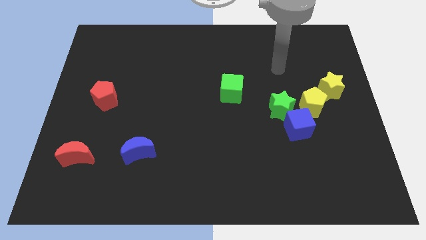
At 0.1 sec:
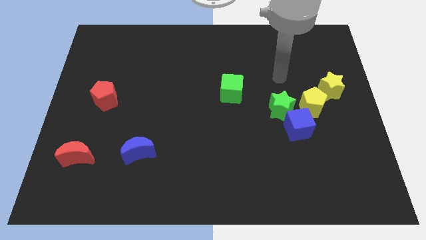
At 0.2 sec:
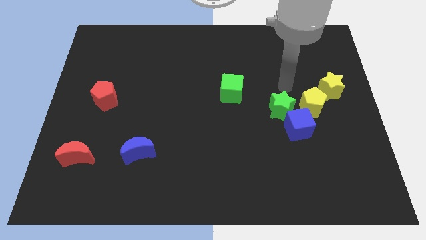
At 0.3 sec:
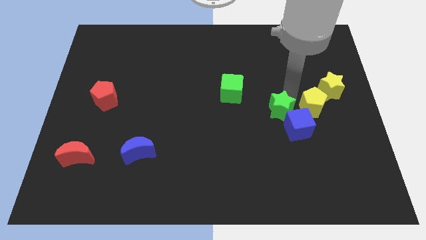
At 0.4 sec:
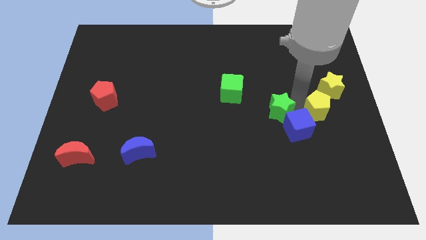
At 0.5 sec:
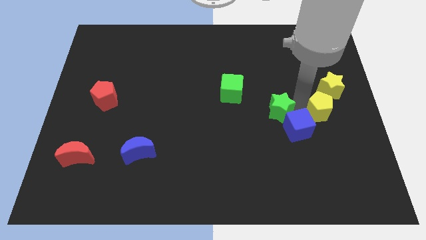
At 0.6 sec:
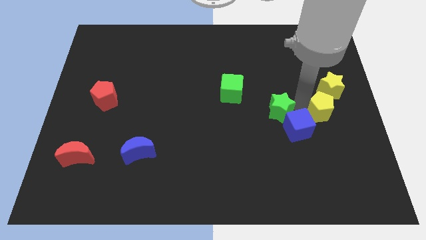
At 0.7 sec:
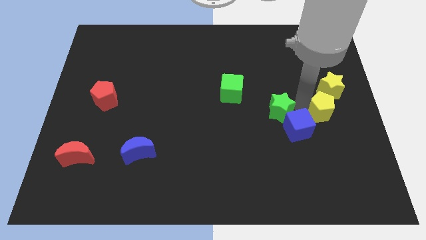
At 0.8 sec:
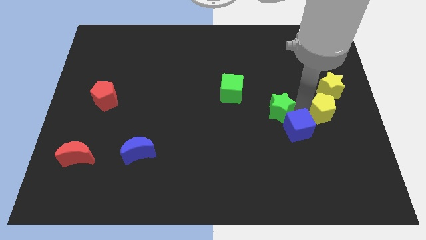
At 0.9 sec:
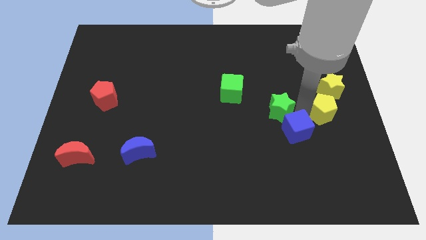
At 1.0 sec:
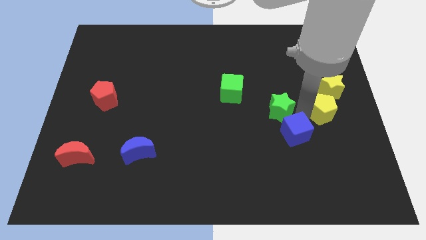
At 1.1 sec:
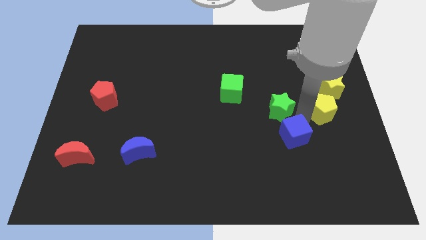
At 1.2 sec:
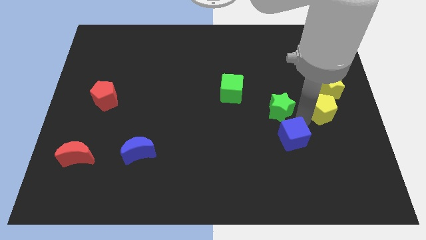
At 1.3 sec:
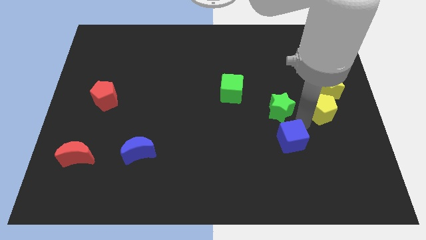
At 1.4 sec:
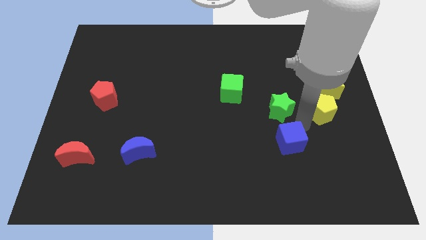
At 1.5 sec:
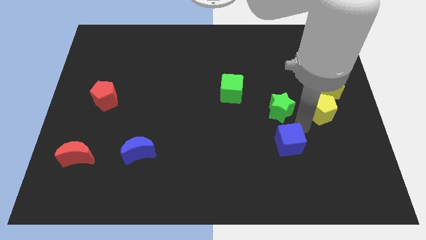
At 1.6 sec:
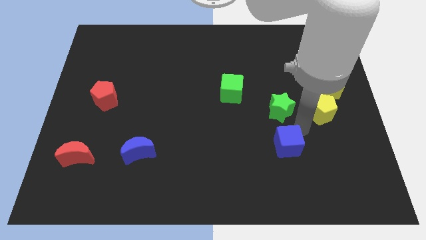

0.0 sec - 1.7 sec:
move the blue cube away from the green star and yellow pentagon

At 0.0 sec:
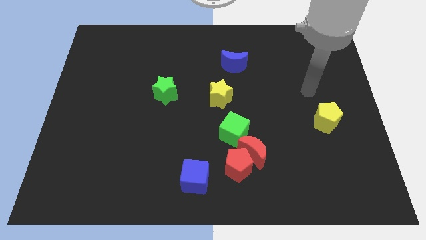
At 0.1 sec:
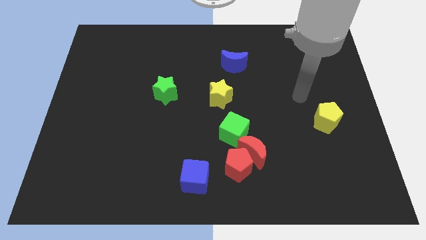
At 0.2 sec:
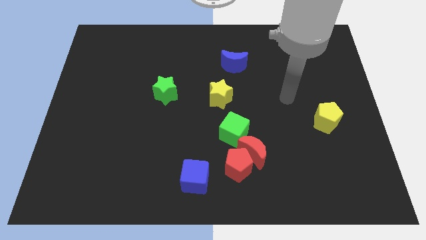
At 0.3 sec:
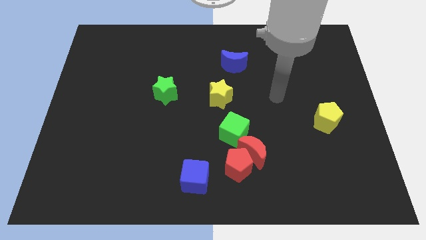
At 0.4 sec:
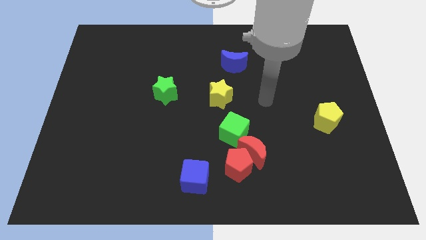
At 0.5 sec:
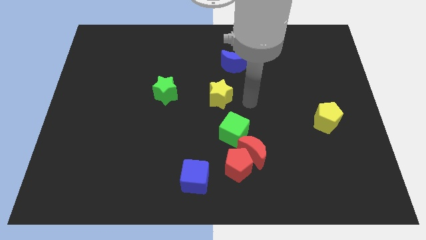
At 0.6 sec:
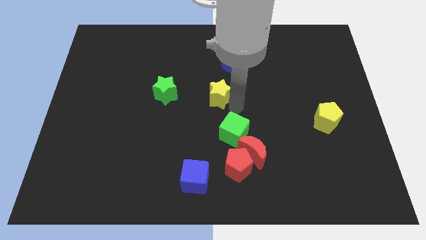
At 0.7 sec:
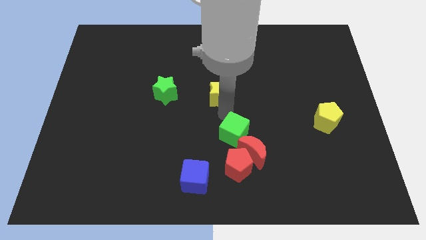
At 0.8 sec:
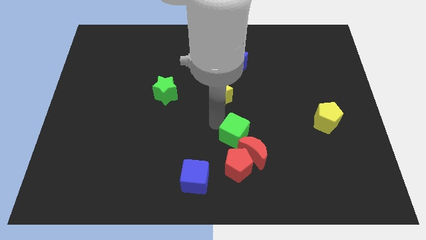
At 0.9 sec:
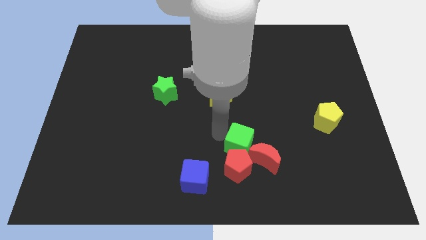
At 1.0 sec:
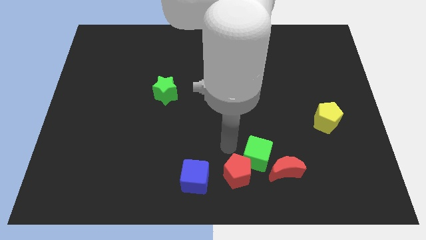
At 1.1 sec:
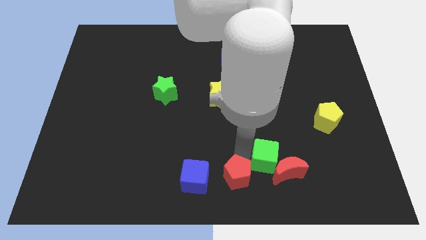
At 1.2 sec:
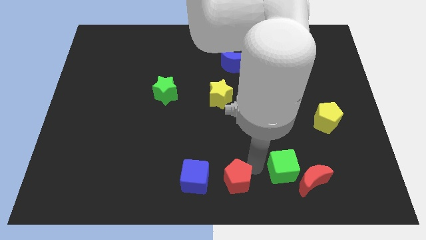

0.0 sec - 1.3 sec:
move the red moon away from the red pentagon and green cube

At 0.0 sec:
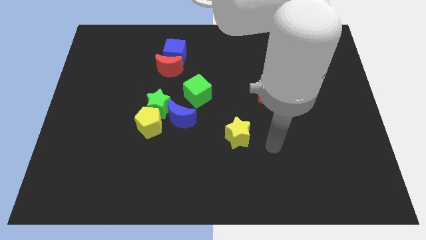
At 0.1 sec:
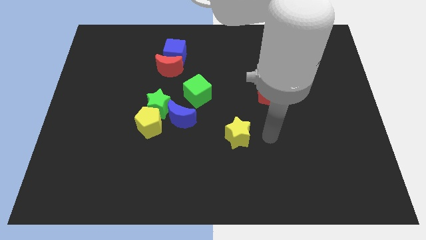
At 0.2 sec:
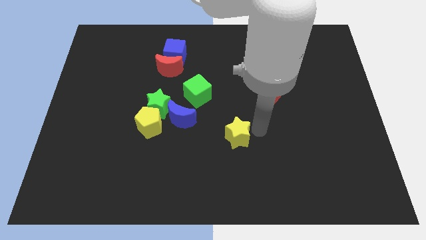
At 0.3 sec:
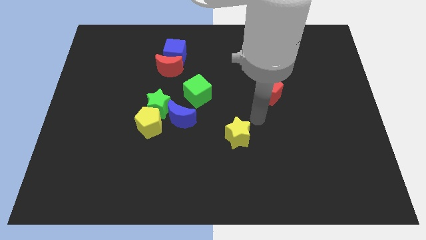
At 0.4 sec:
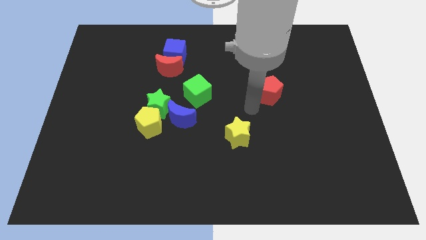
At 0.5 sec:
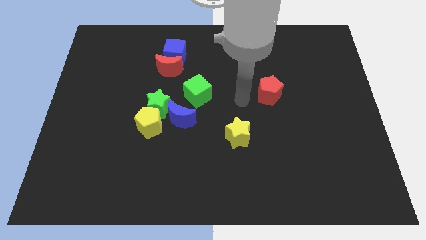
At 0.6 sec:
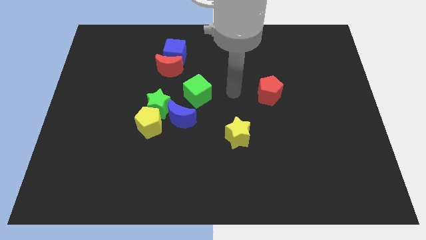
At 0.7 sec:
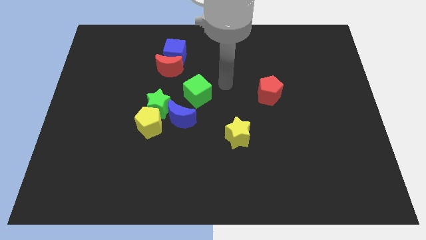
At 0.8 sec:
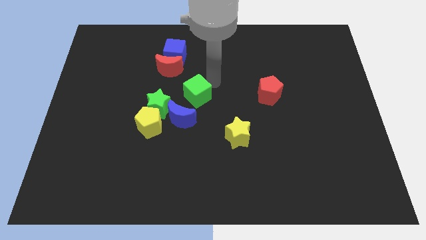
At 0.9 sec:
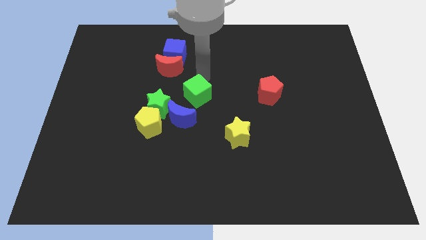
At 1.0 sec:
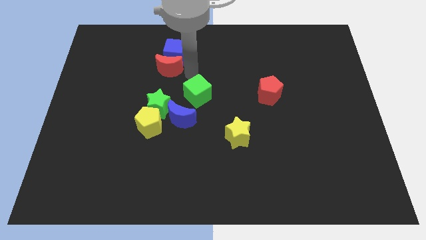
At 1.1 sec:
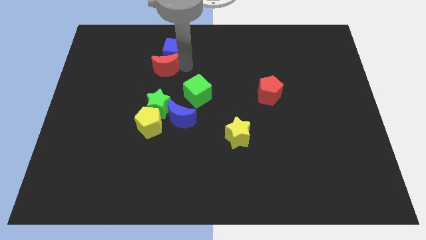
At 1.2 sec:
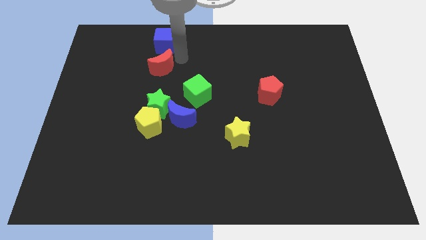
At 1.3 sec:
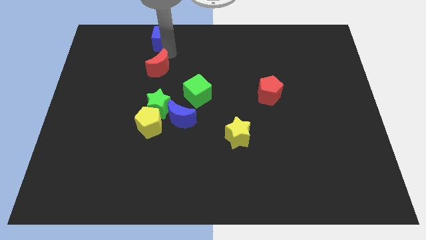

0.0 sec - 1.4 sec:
pull the red moon apart from the blue cube

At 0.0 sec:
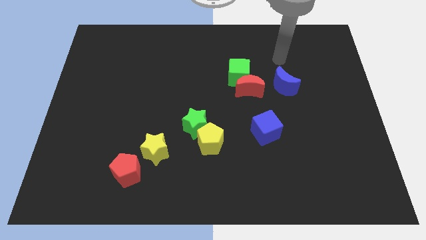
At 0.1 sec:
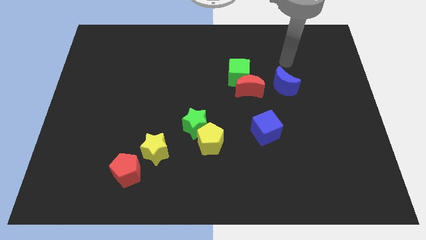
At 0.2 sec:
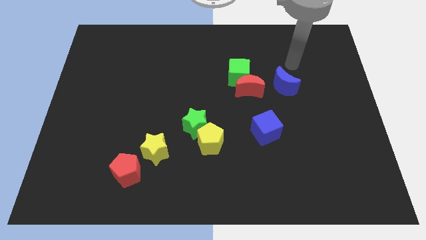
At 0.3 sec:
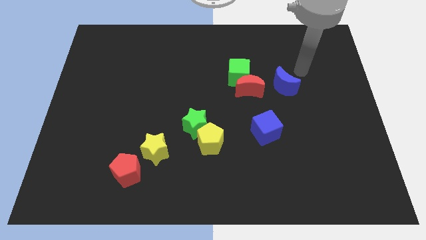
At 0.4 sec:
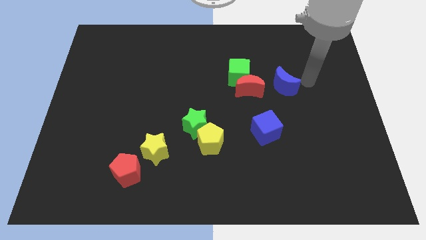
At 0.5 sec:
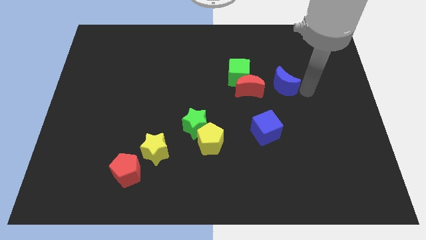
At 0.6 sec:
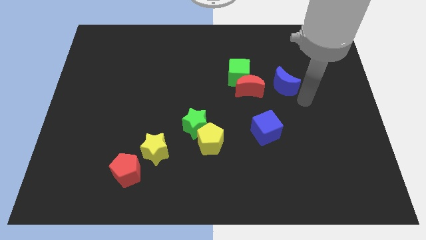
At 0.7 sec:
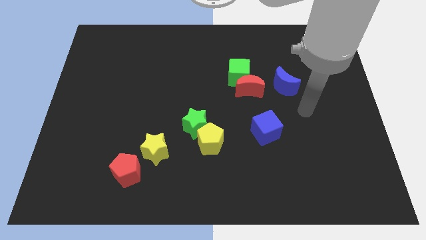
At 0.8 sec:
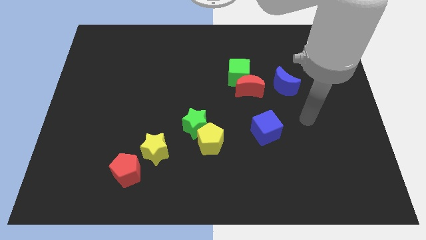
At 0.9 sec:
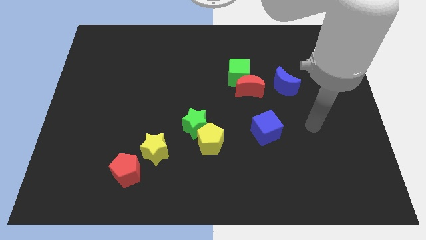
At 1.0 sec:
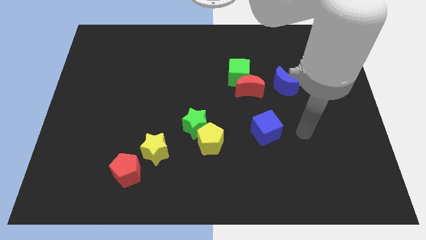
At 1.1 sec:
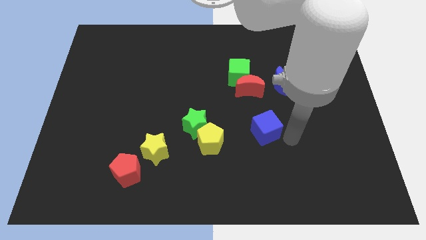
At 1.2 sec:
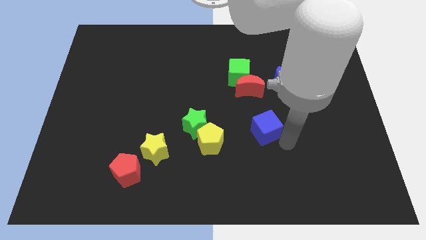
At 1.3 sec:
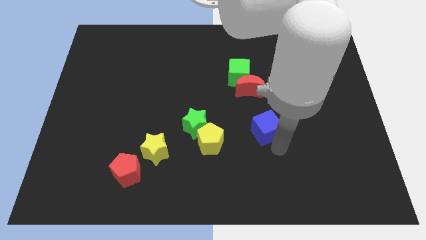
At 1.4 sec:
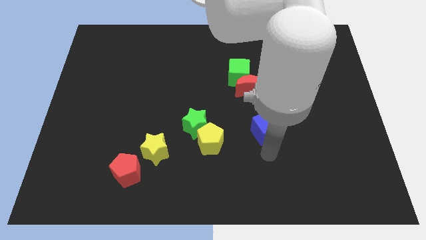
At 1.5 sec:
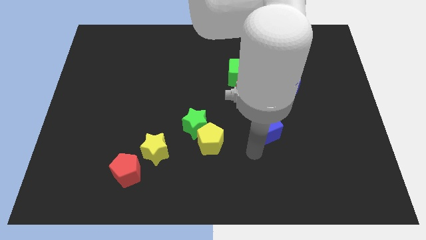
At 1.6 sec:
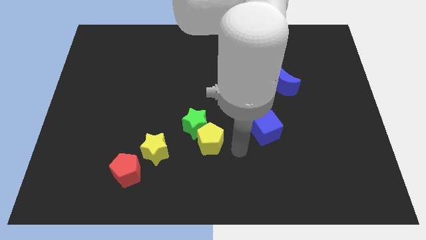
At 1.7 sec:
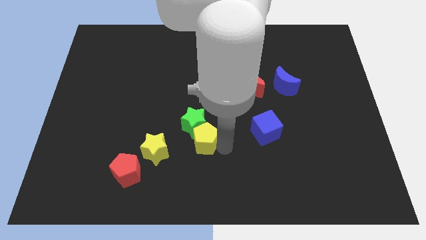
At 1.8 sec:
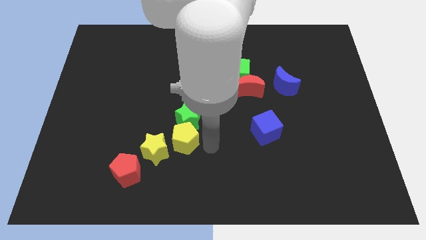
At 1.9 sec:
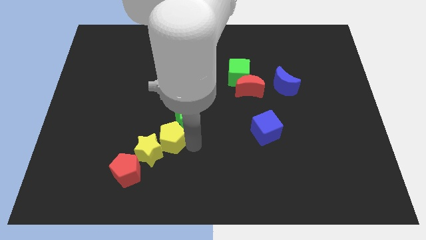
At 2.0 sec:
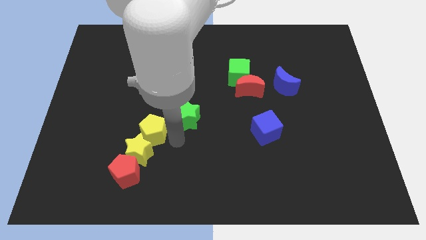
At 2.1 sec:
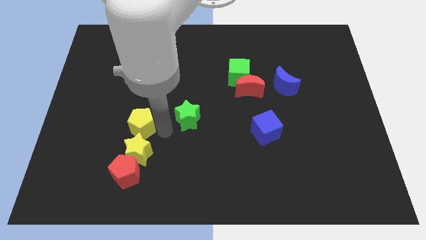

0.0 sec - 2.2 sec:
separate the green star from the yellow pentagon

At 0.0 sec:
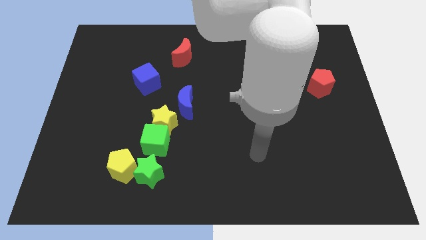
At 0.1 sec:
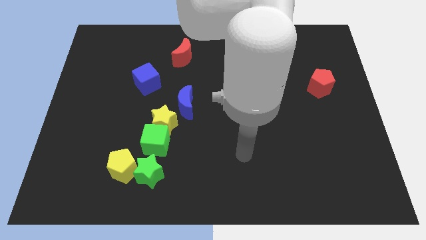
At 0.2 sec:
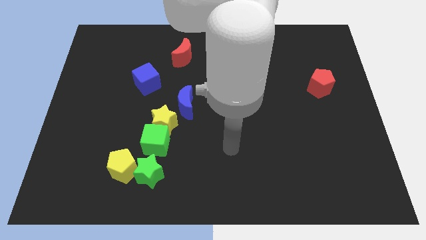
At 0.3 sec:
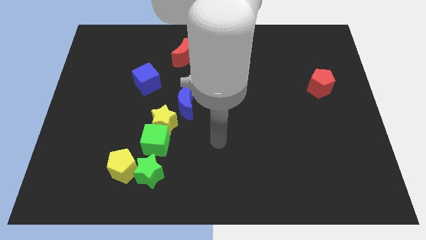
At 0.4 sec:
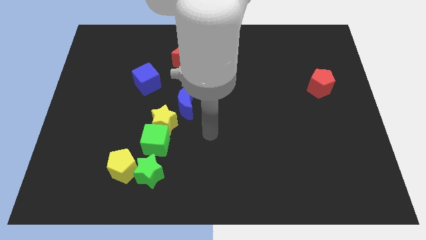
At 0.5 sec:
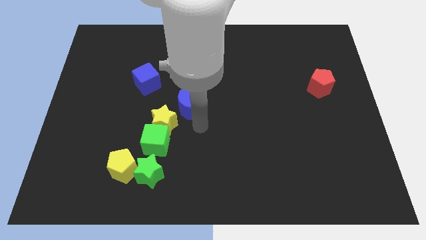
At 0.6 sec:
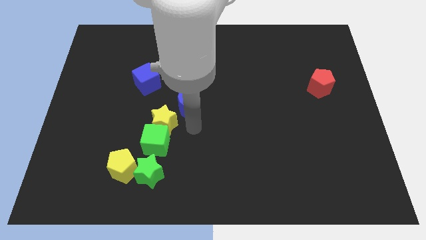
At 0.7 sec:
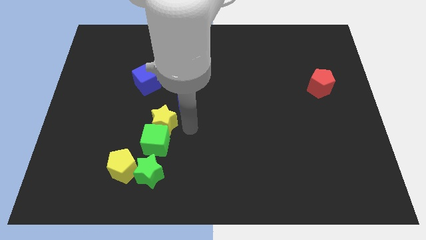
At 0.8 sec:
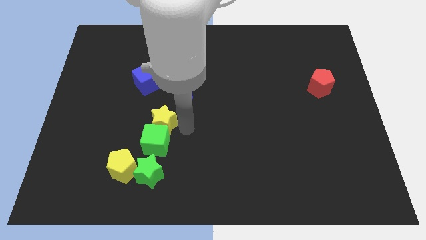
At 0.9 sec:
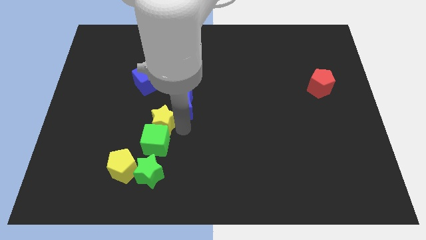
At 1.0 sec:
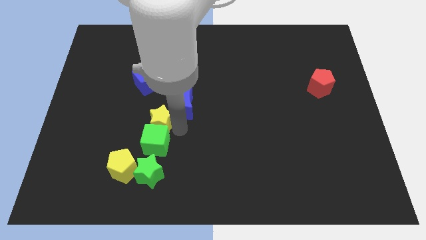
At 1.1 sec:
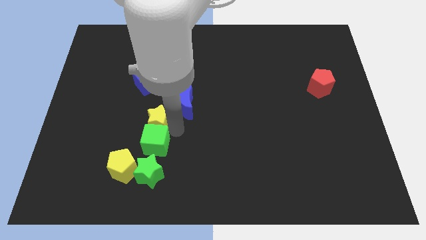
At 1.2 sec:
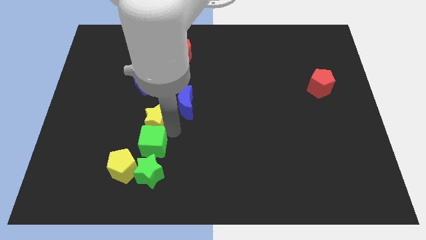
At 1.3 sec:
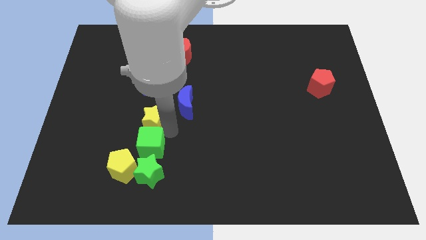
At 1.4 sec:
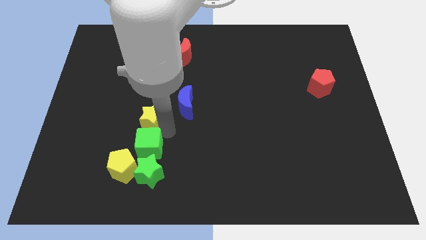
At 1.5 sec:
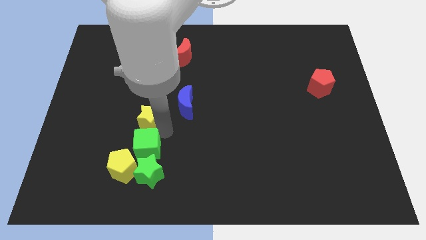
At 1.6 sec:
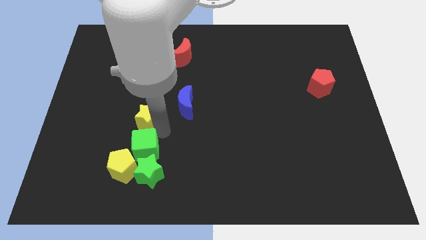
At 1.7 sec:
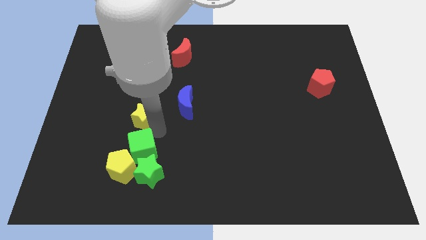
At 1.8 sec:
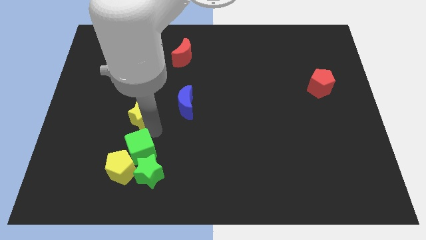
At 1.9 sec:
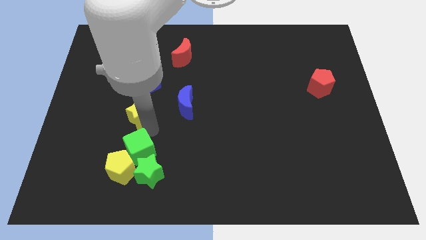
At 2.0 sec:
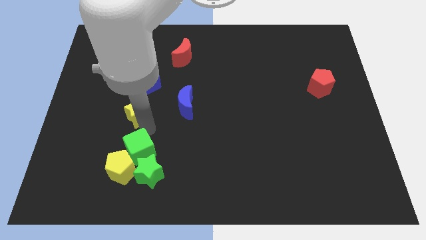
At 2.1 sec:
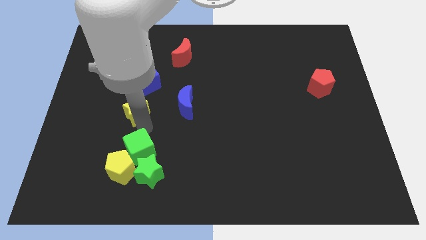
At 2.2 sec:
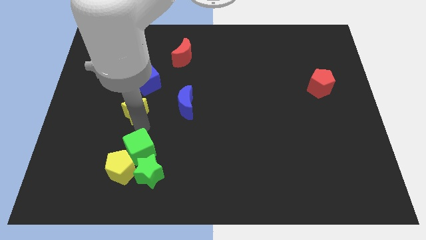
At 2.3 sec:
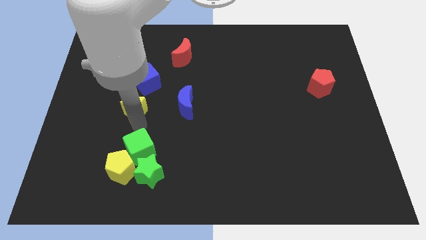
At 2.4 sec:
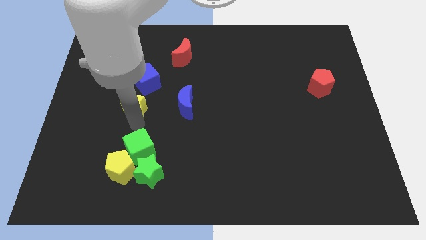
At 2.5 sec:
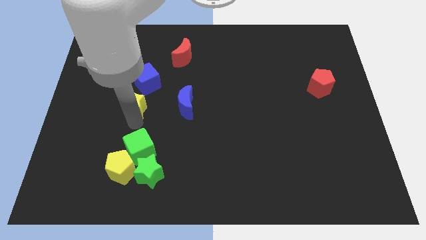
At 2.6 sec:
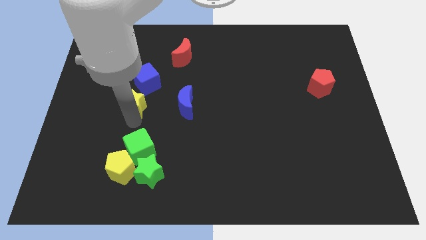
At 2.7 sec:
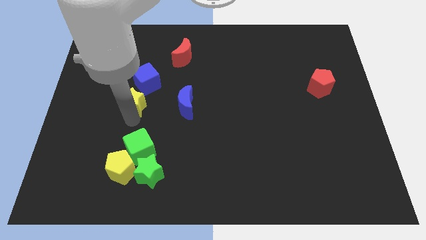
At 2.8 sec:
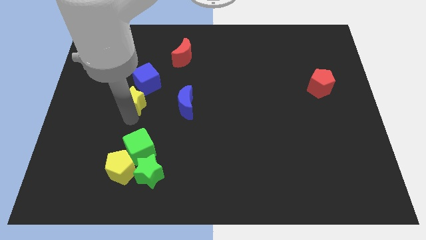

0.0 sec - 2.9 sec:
pull the yellow star apart from the green cube and blue moon
